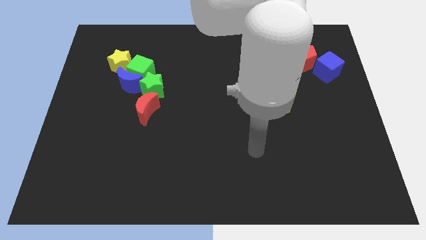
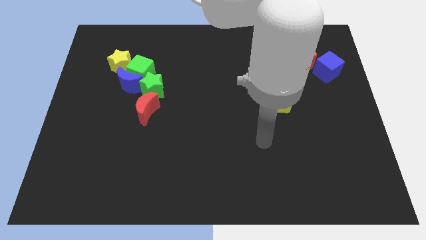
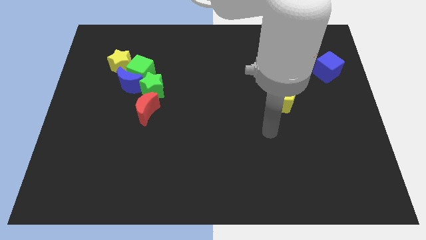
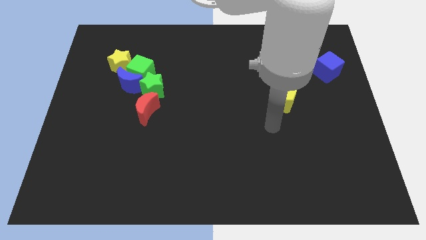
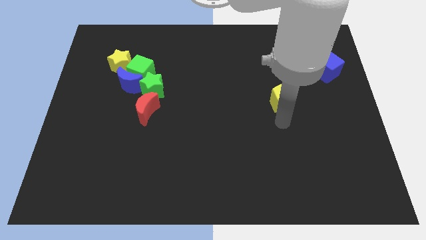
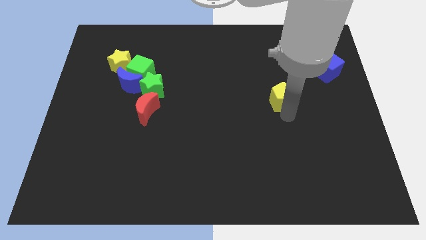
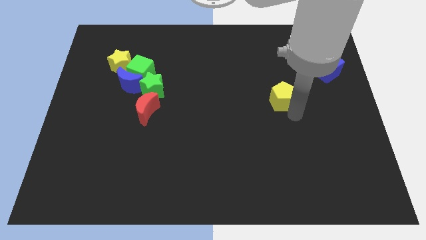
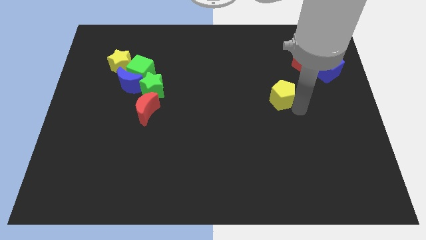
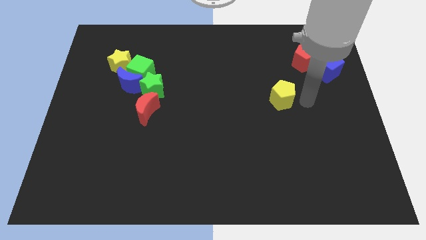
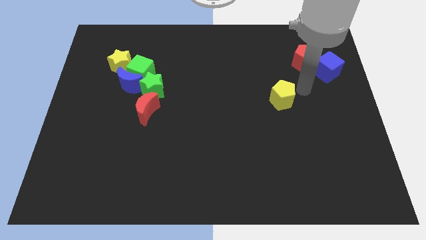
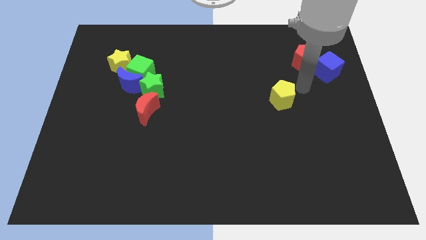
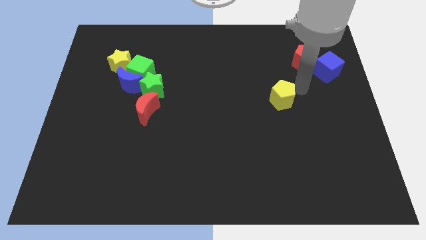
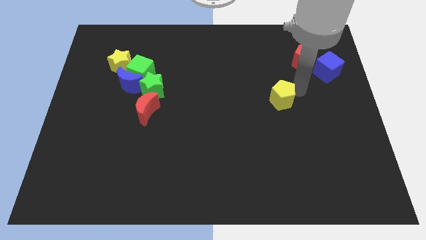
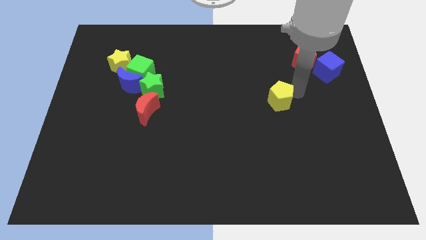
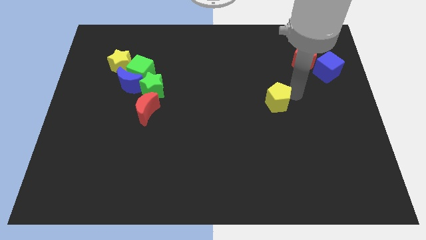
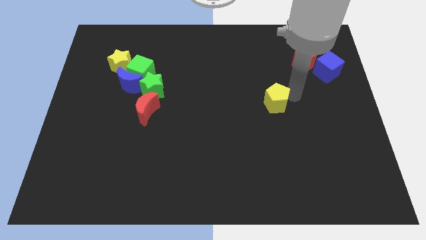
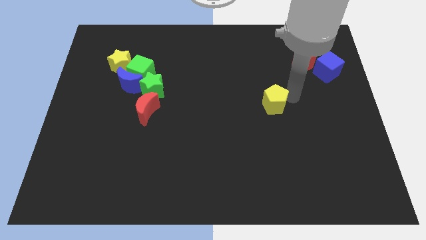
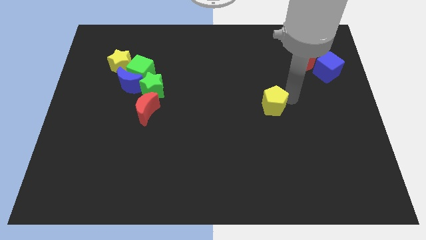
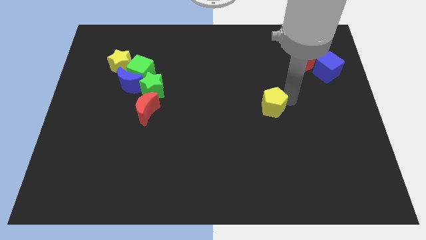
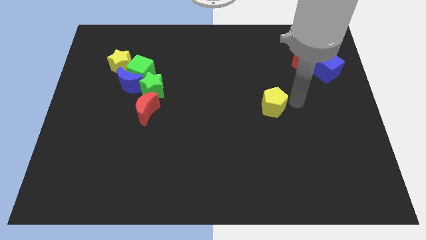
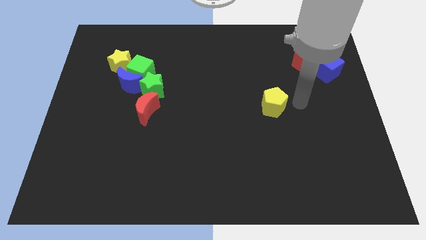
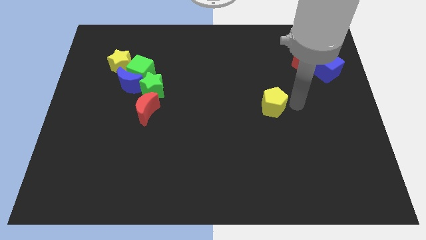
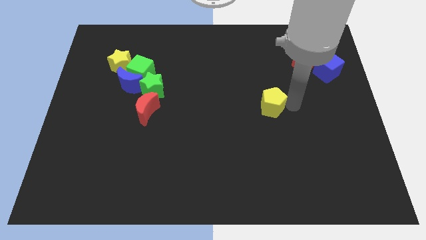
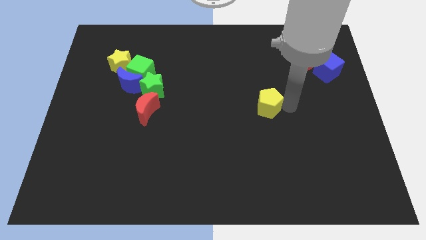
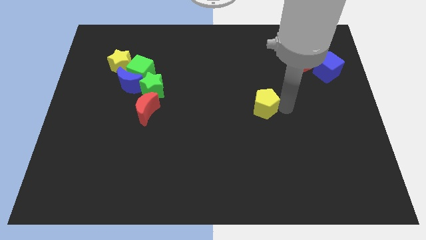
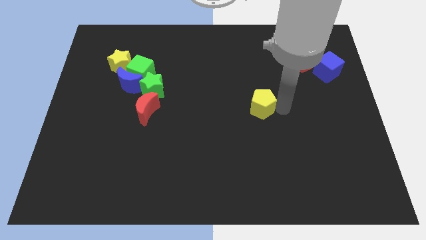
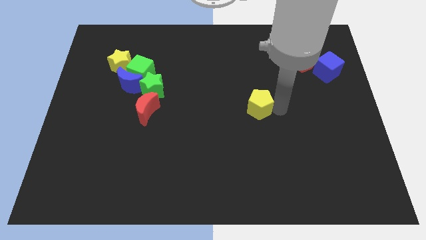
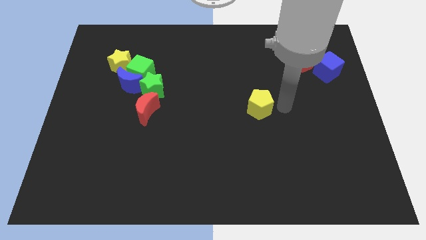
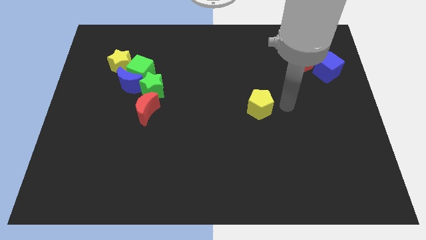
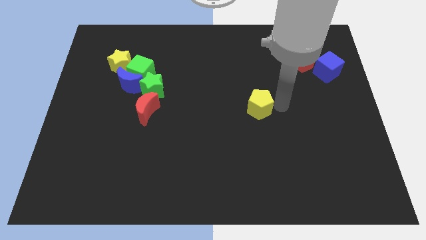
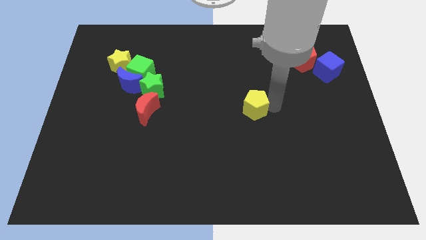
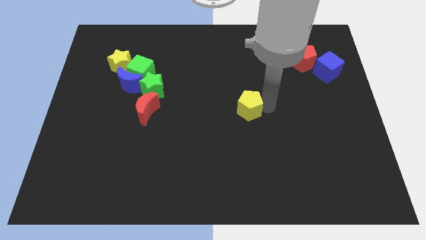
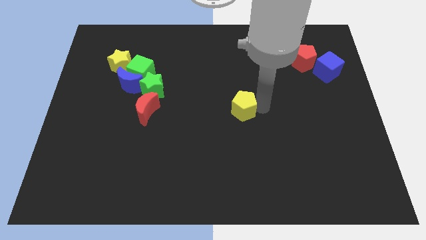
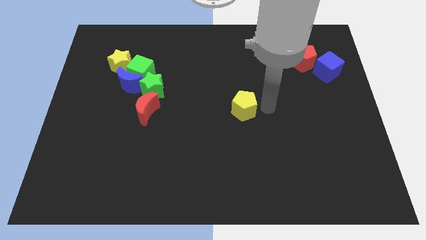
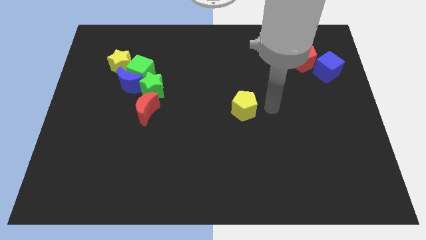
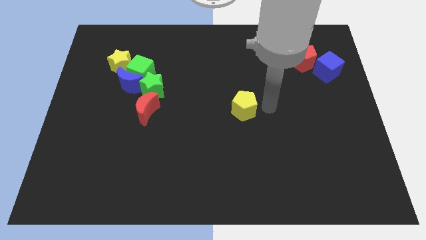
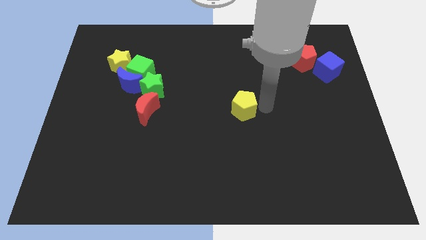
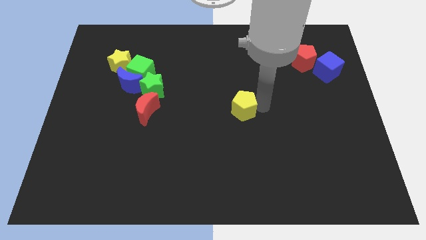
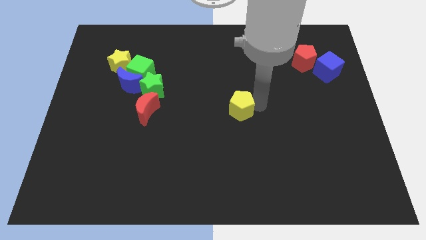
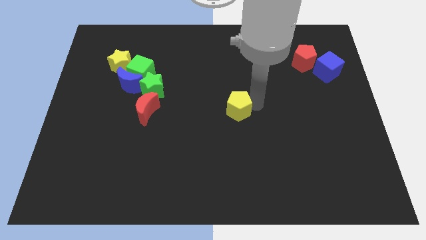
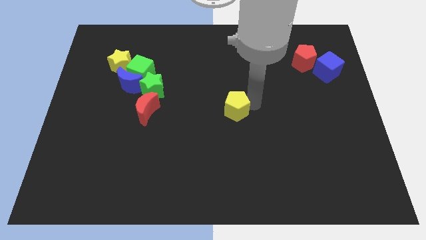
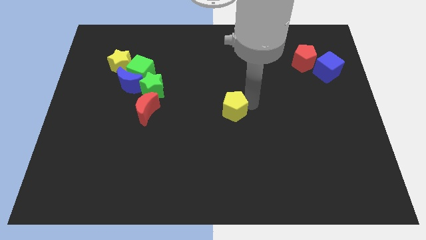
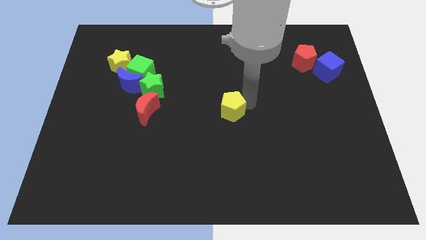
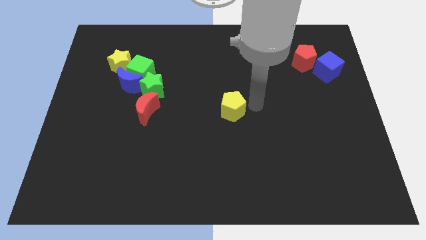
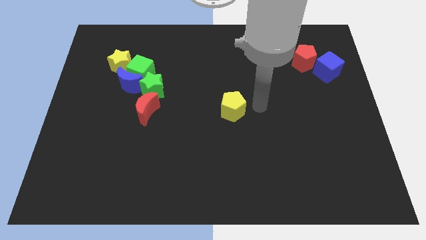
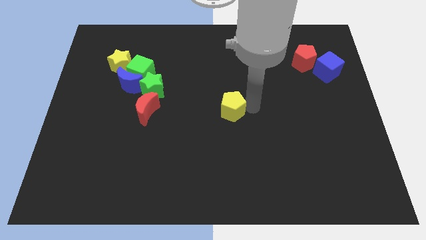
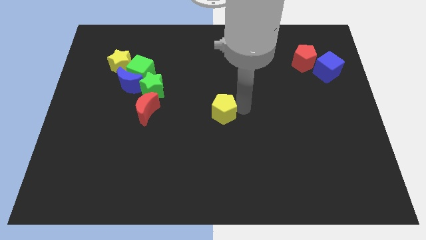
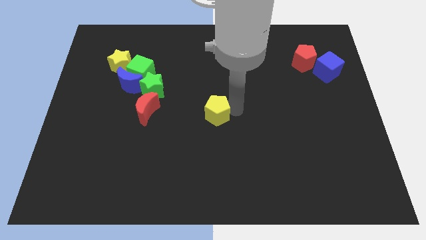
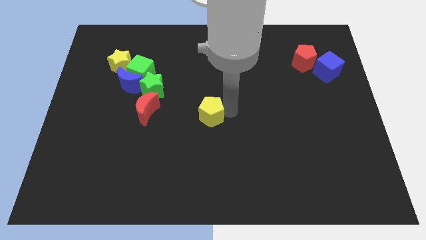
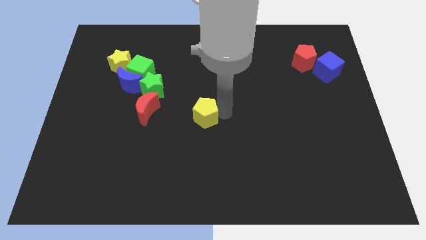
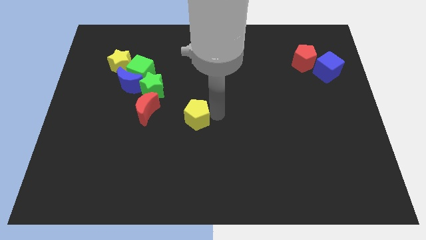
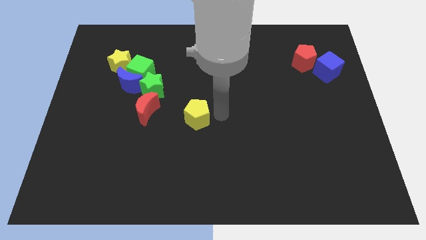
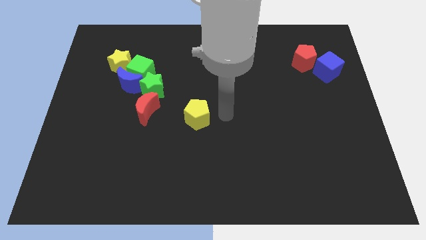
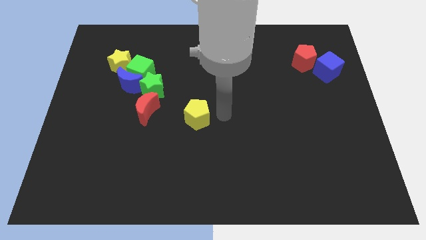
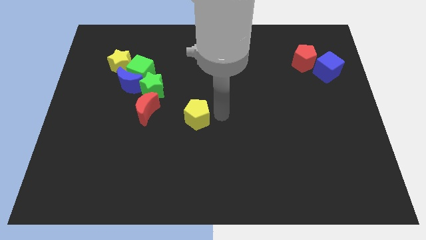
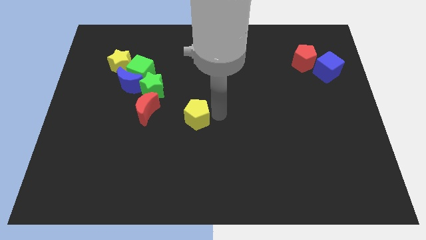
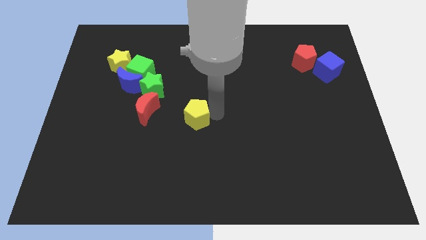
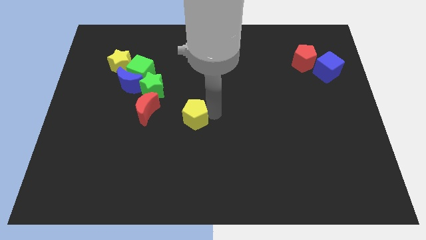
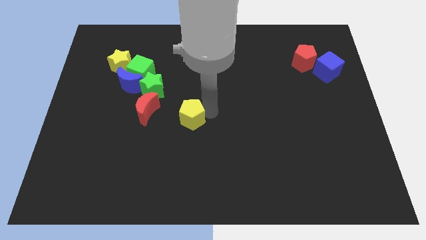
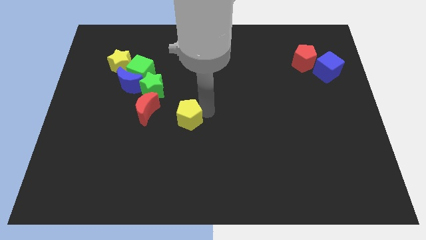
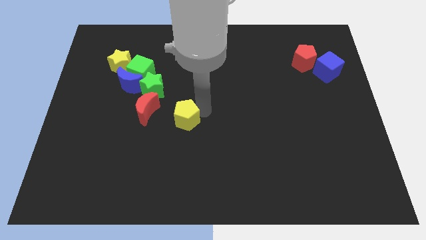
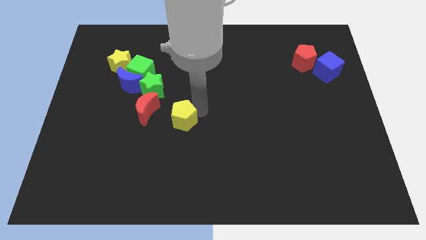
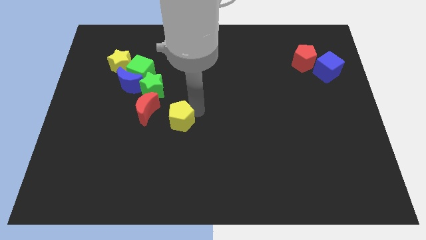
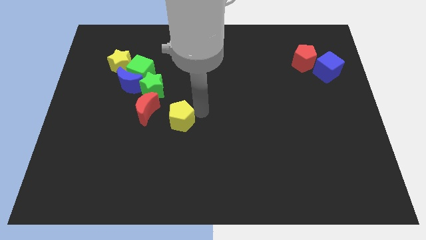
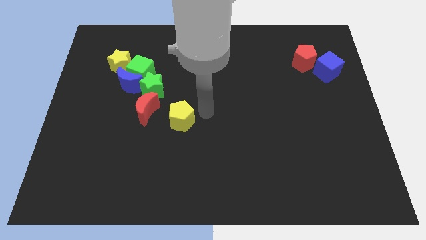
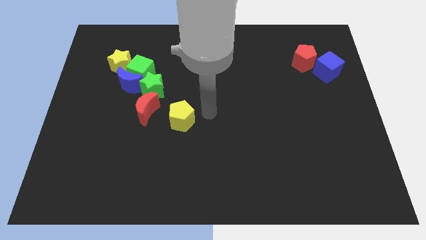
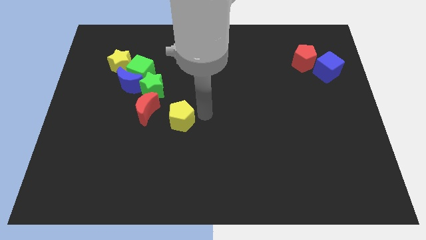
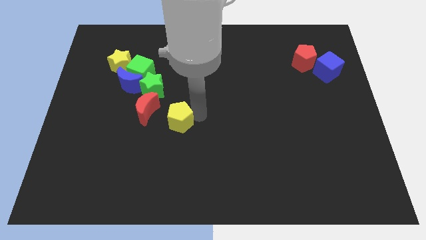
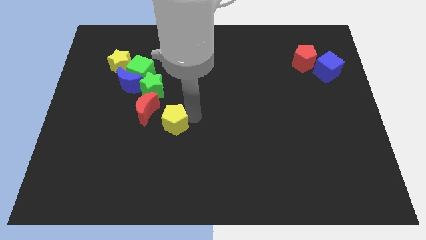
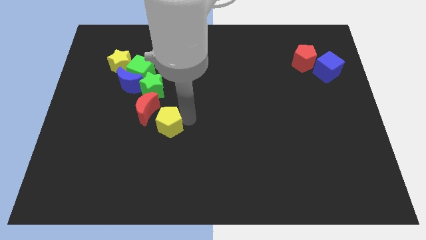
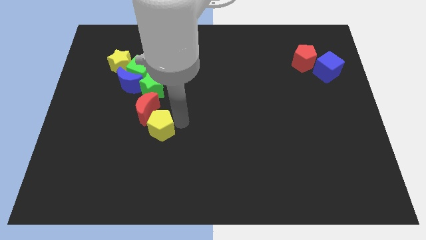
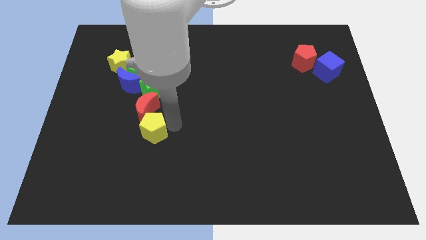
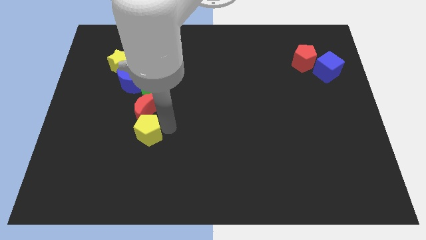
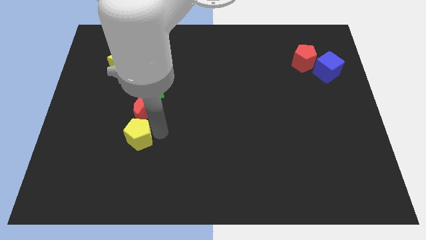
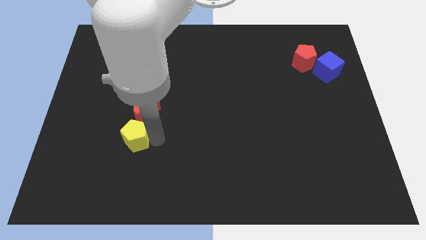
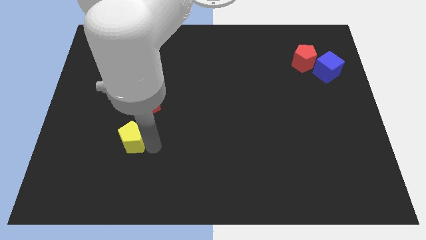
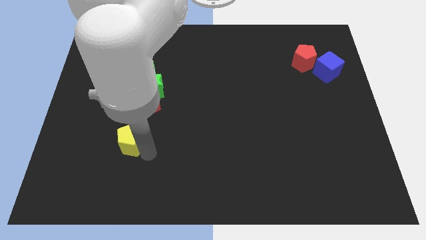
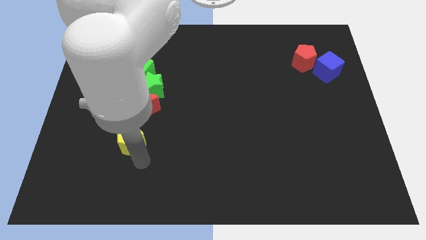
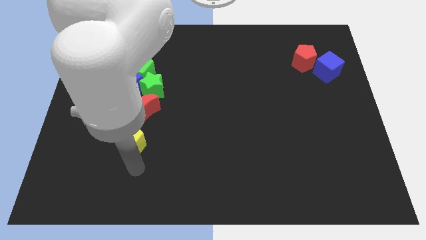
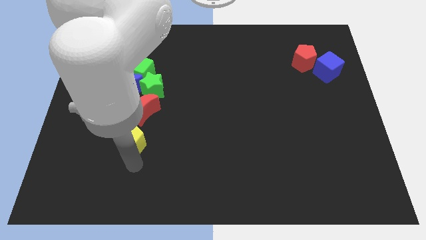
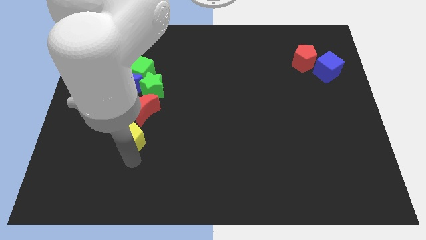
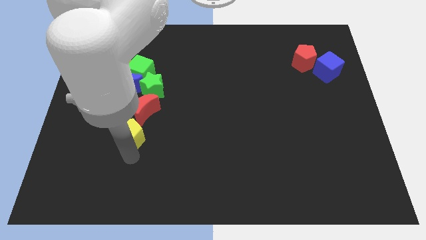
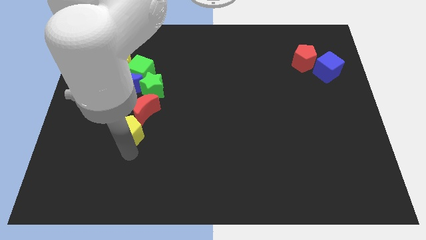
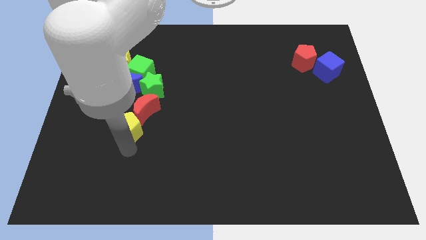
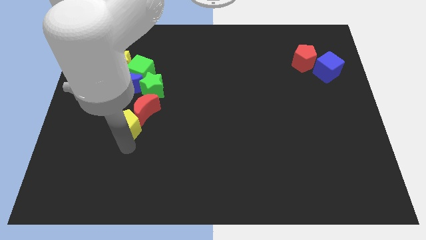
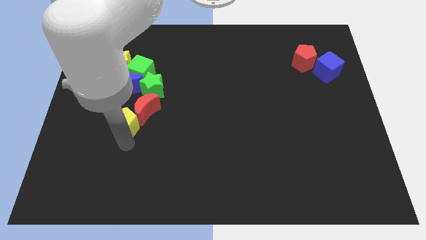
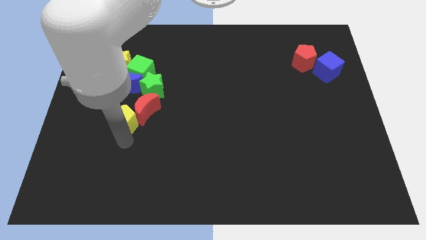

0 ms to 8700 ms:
move the yellow pentagon diagonally down and to the left of the green star
